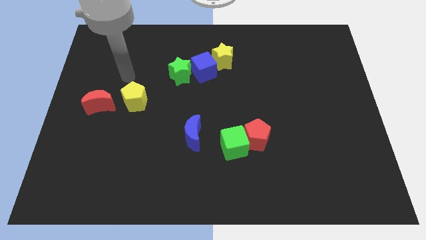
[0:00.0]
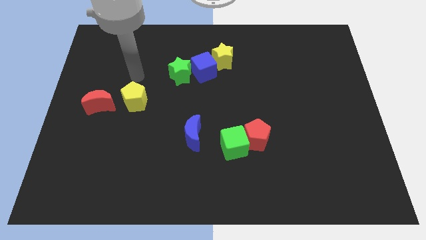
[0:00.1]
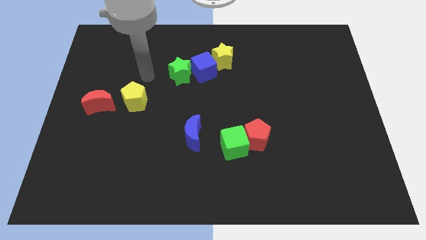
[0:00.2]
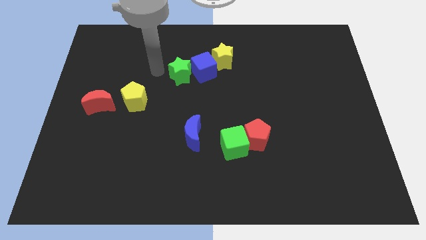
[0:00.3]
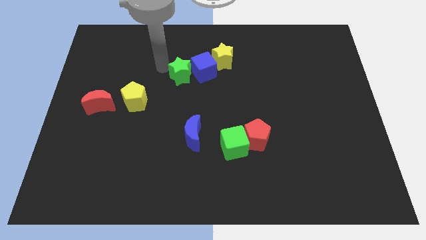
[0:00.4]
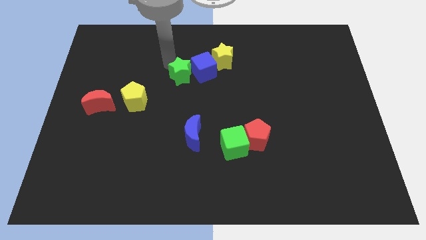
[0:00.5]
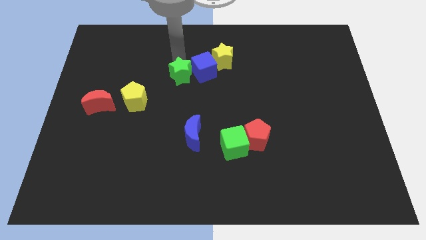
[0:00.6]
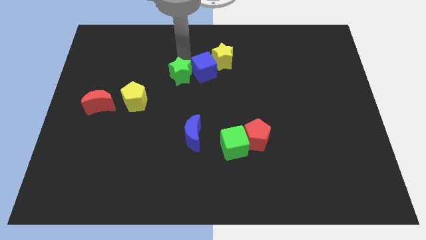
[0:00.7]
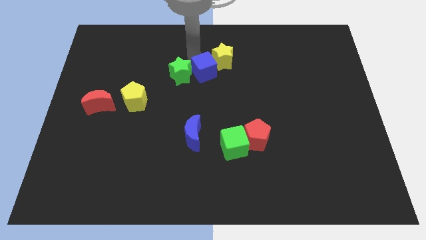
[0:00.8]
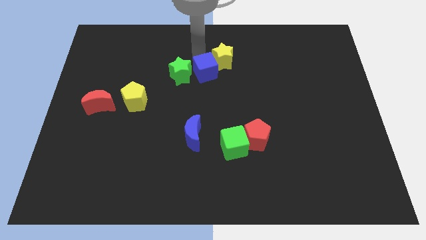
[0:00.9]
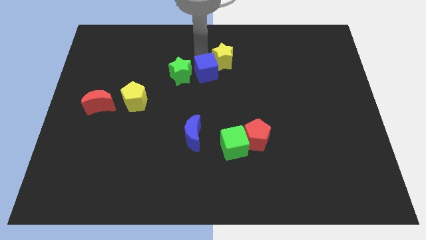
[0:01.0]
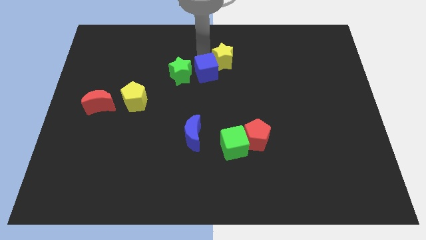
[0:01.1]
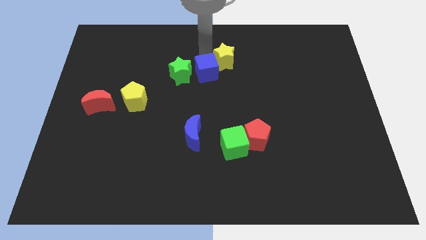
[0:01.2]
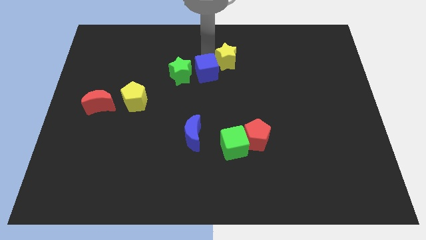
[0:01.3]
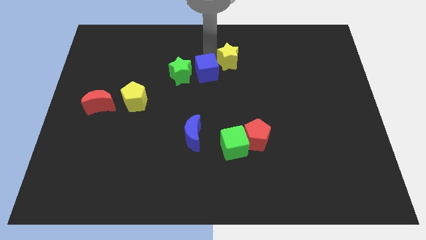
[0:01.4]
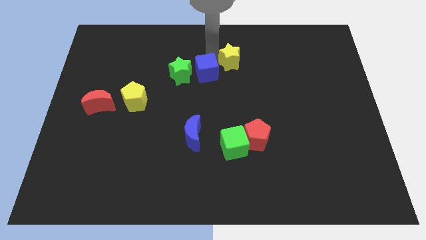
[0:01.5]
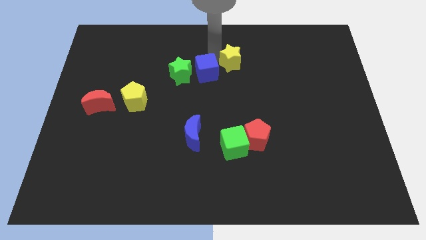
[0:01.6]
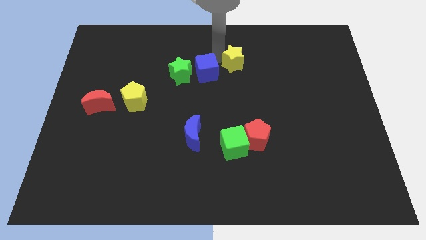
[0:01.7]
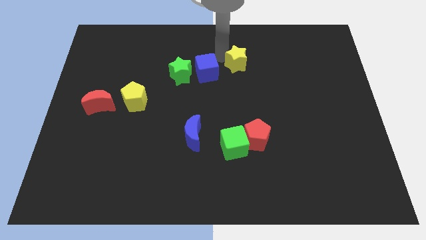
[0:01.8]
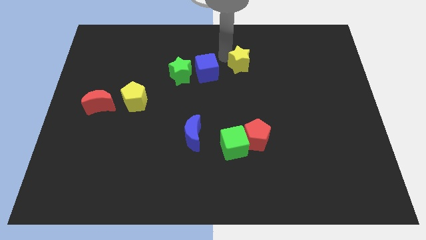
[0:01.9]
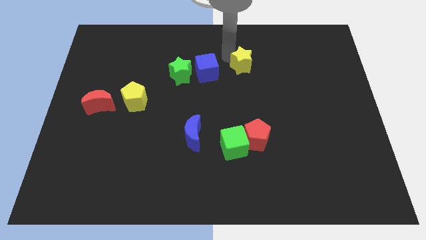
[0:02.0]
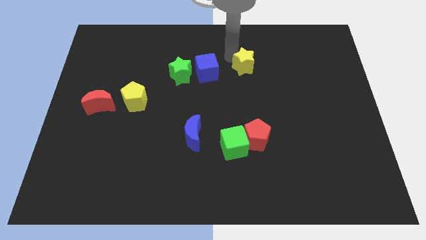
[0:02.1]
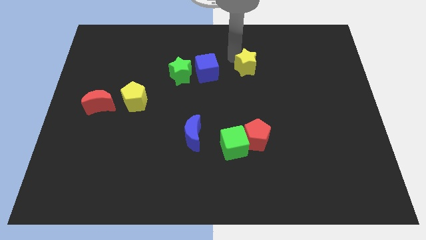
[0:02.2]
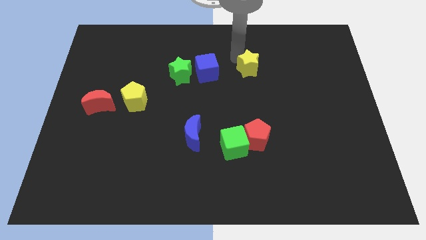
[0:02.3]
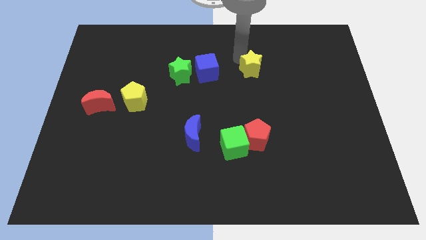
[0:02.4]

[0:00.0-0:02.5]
slightly move the yellow star right

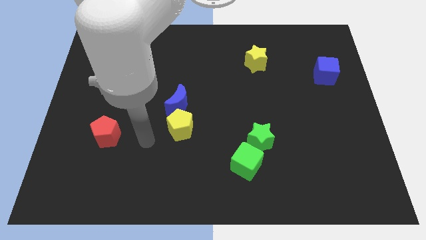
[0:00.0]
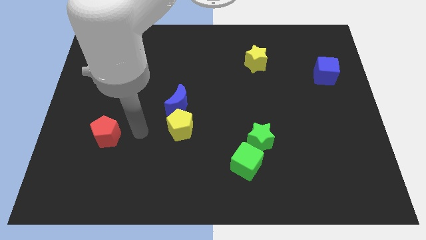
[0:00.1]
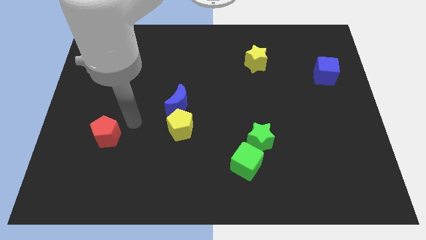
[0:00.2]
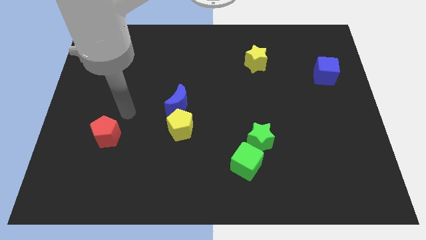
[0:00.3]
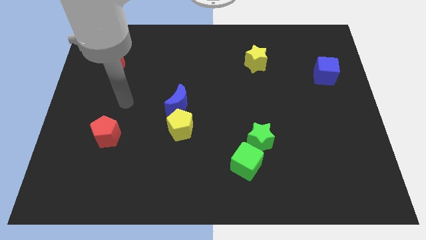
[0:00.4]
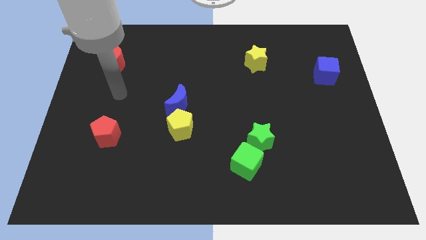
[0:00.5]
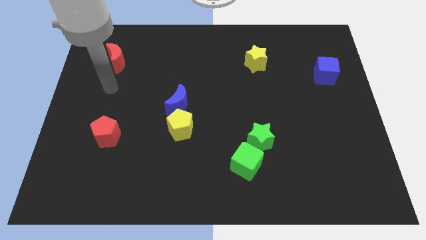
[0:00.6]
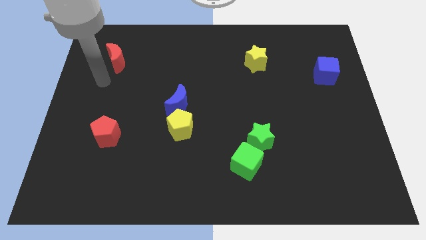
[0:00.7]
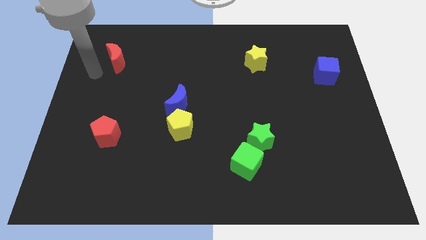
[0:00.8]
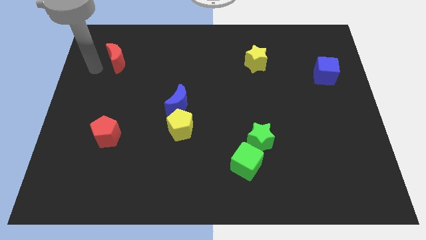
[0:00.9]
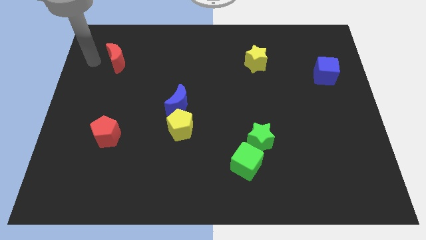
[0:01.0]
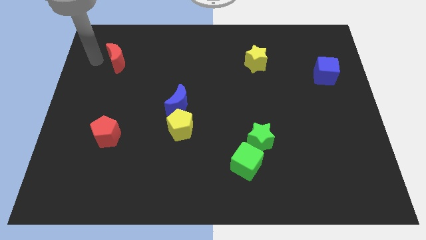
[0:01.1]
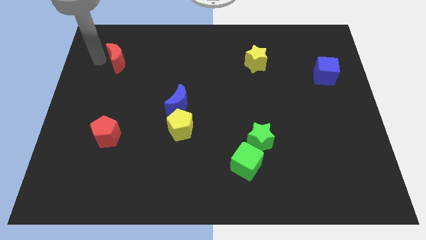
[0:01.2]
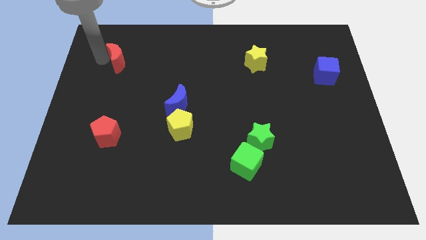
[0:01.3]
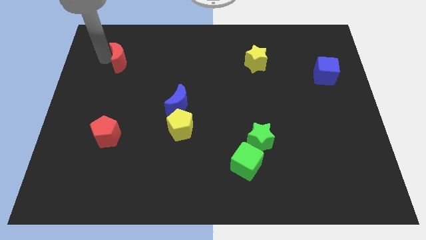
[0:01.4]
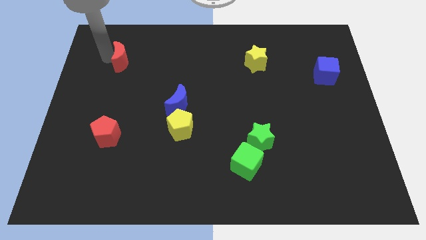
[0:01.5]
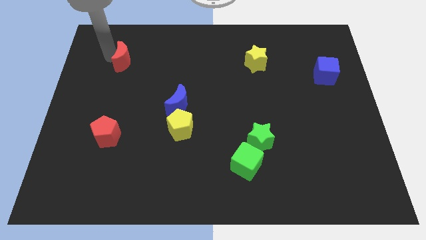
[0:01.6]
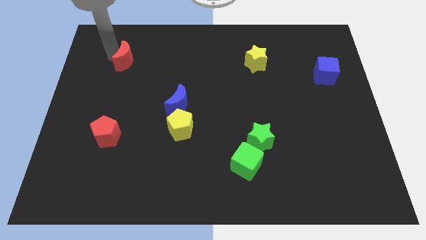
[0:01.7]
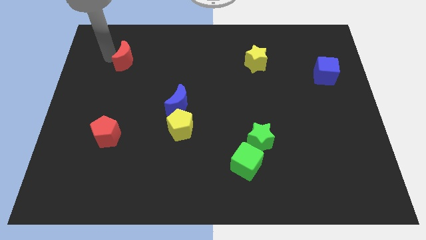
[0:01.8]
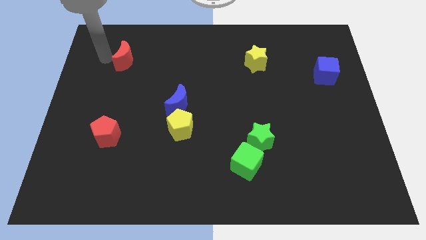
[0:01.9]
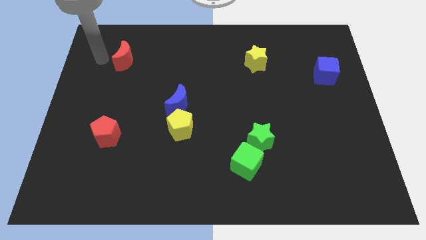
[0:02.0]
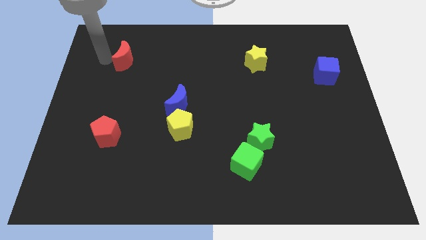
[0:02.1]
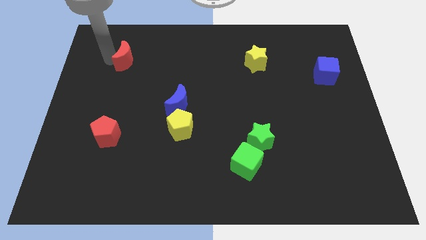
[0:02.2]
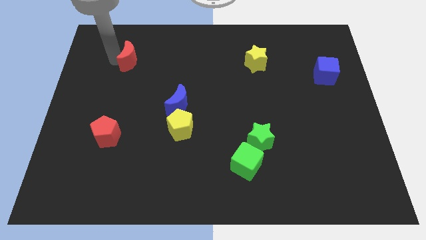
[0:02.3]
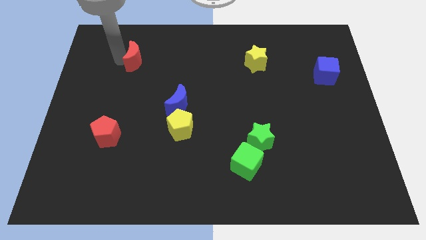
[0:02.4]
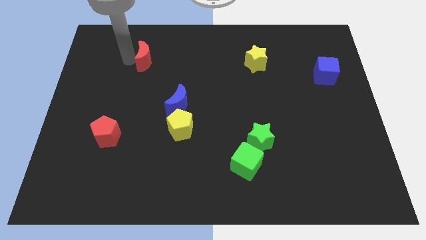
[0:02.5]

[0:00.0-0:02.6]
push the red moon right a bit

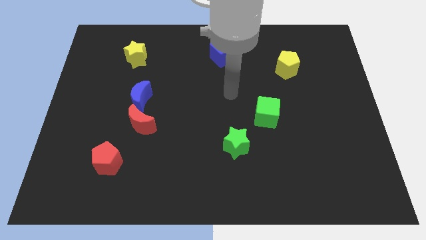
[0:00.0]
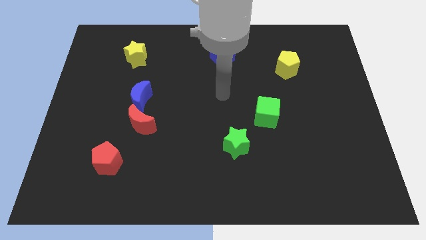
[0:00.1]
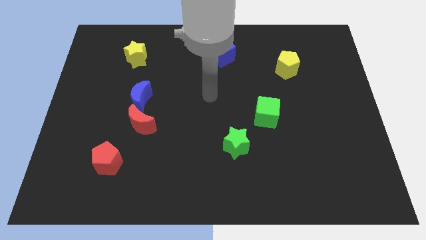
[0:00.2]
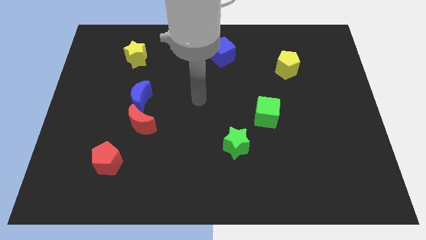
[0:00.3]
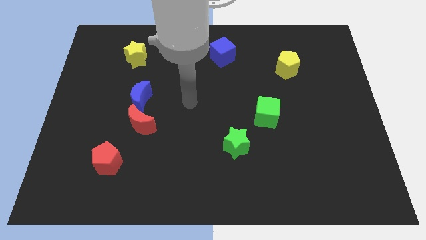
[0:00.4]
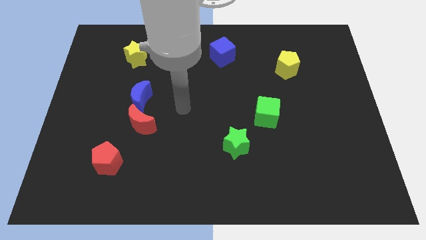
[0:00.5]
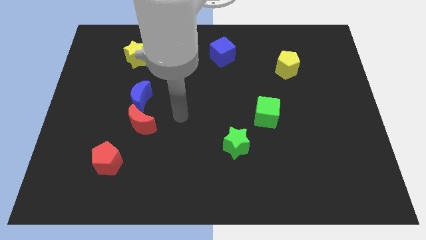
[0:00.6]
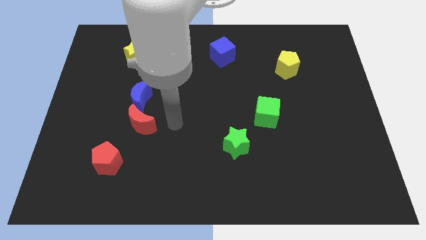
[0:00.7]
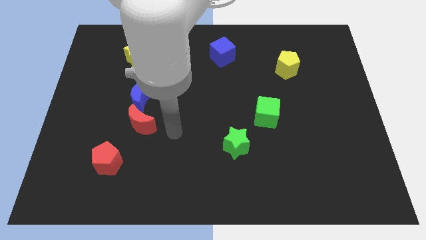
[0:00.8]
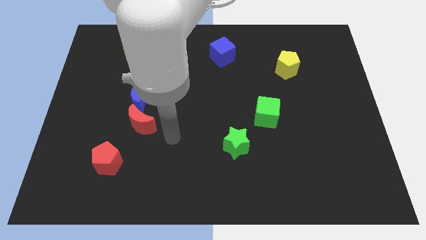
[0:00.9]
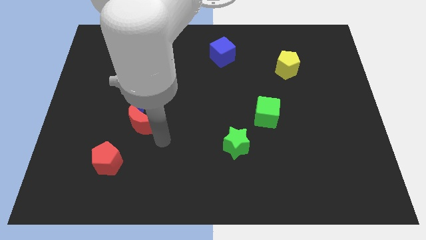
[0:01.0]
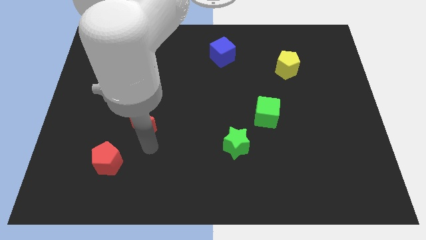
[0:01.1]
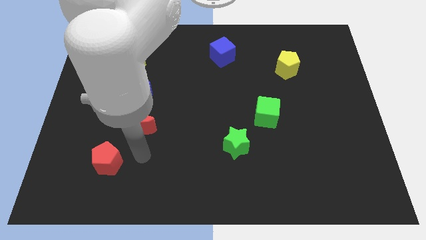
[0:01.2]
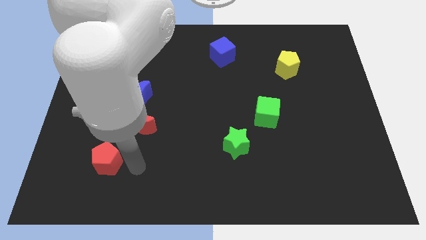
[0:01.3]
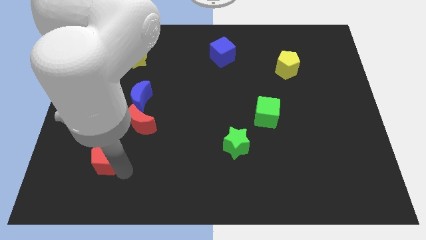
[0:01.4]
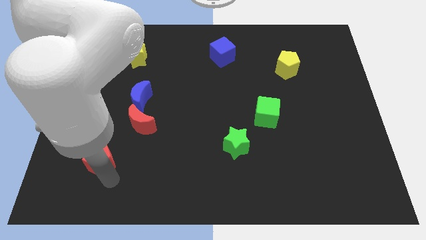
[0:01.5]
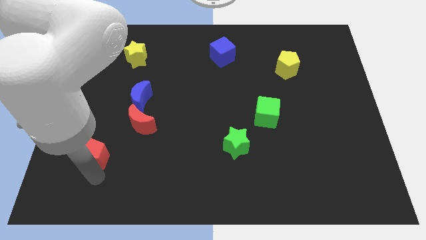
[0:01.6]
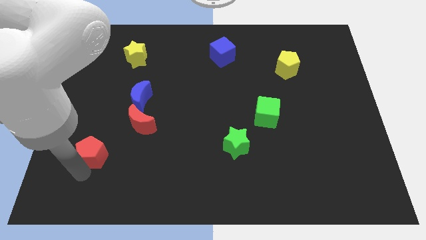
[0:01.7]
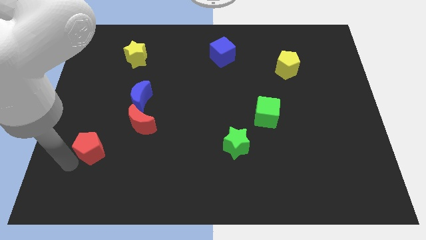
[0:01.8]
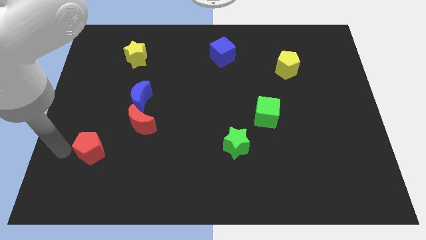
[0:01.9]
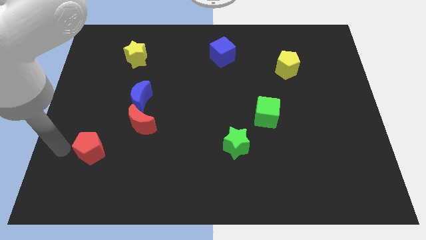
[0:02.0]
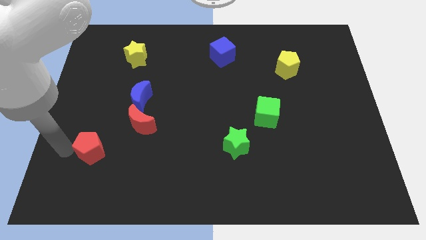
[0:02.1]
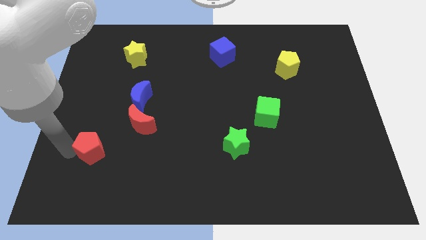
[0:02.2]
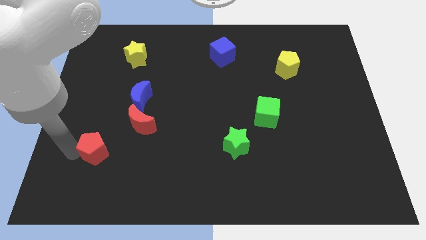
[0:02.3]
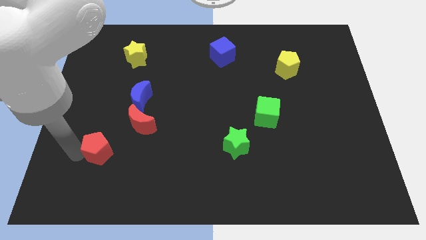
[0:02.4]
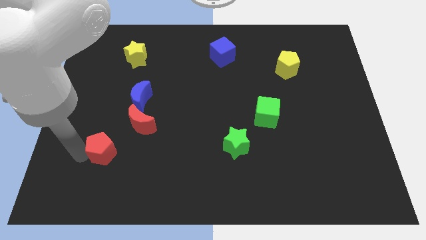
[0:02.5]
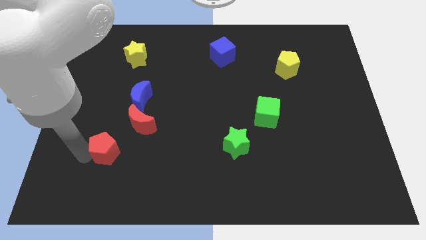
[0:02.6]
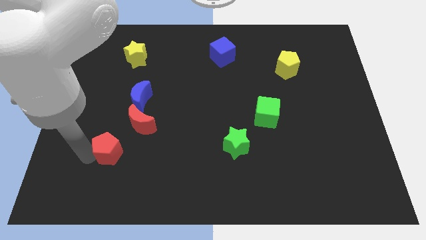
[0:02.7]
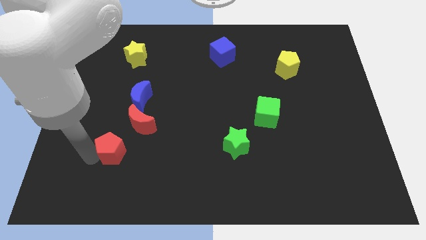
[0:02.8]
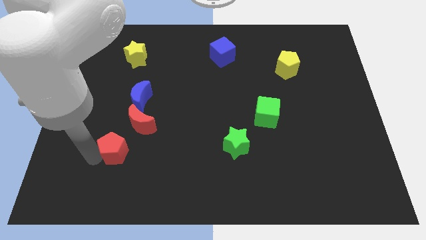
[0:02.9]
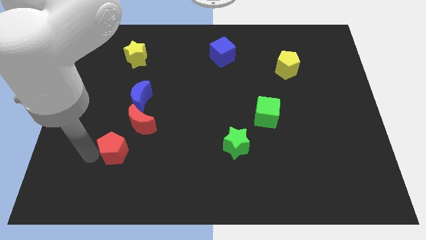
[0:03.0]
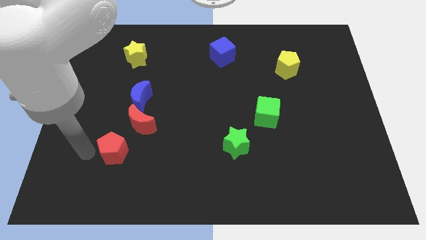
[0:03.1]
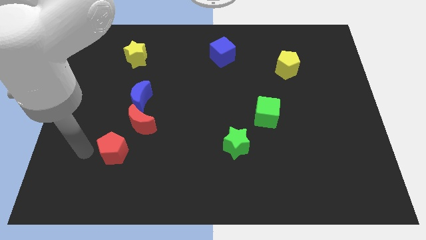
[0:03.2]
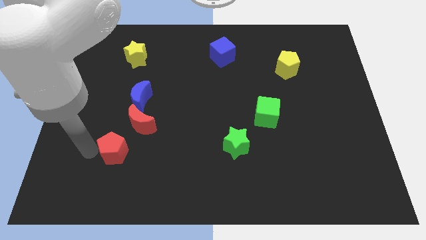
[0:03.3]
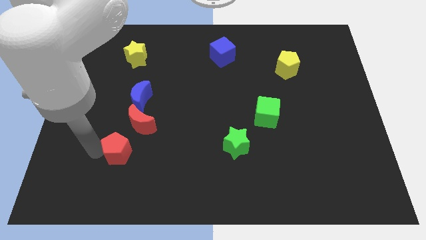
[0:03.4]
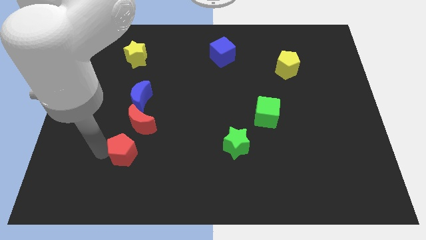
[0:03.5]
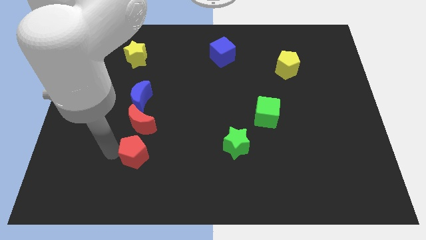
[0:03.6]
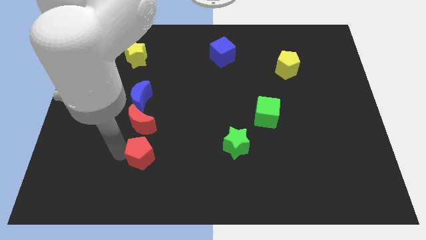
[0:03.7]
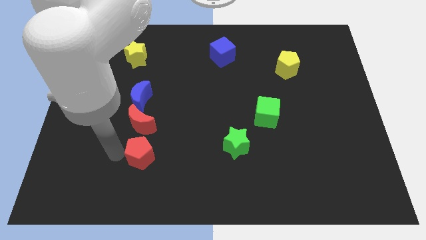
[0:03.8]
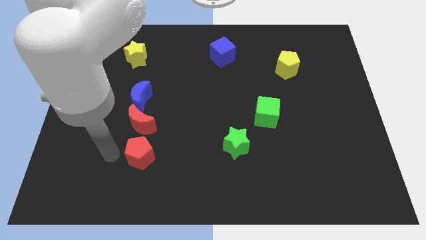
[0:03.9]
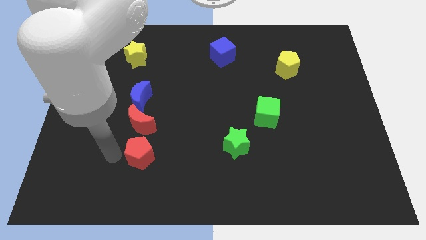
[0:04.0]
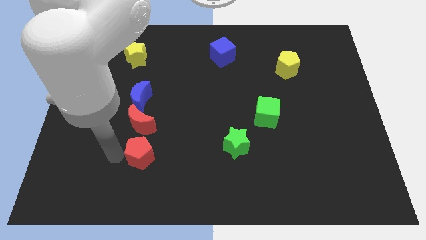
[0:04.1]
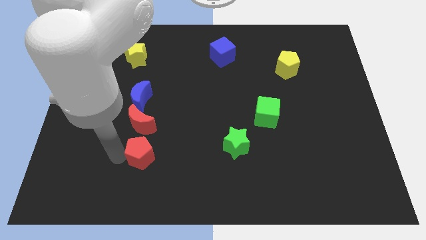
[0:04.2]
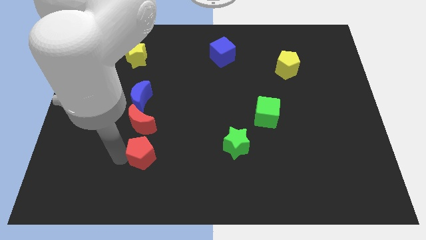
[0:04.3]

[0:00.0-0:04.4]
slide the red pentagon slightly to the right
